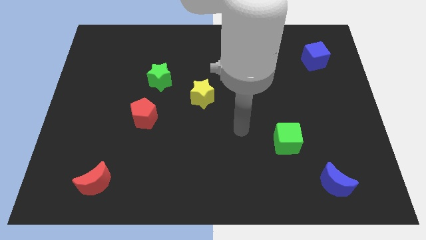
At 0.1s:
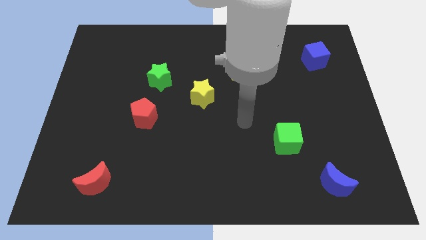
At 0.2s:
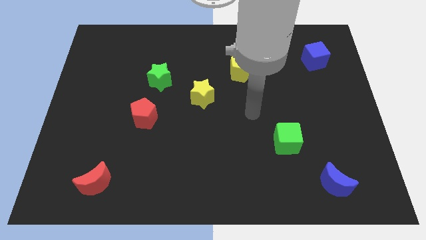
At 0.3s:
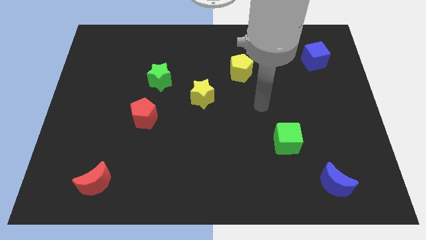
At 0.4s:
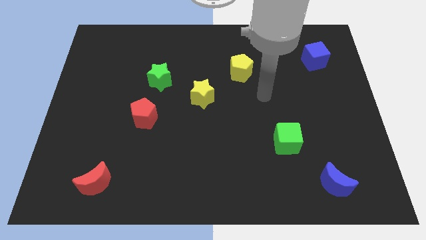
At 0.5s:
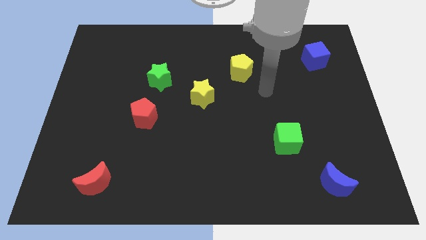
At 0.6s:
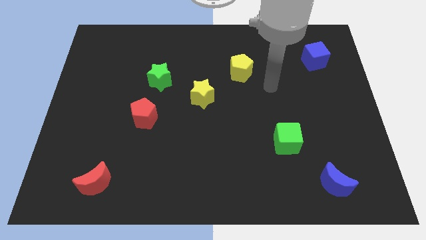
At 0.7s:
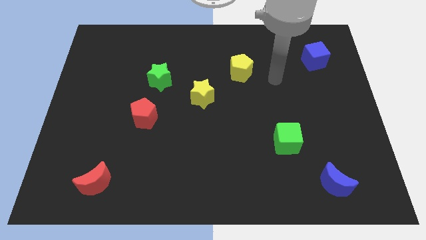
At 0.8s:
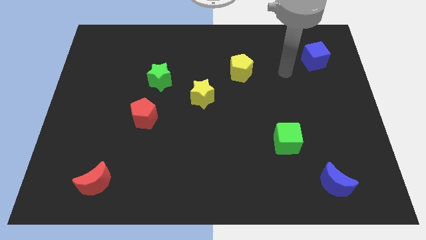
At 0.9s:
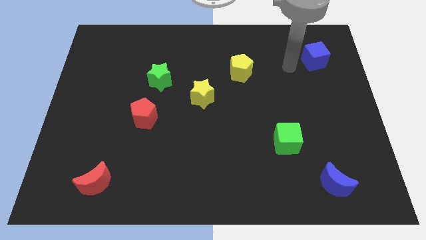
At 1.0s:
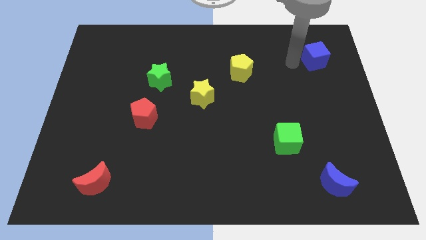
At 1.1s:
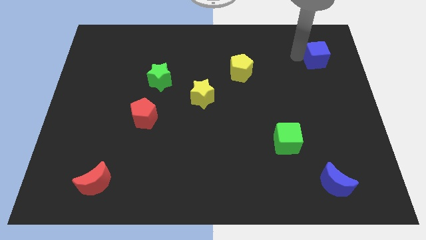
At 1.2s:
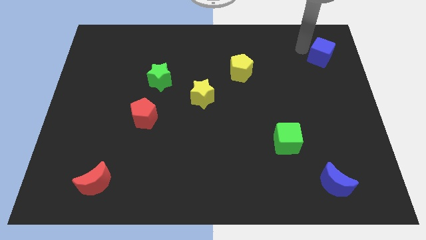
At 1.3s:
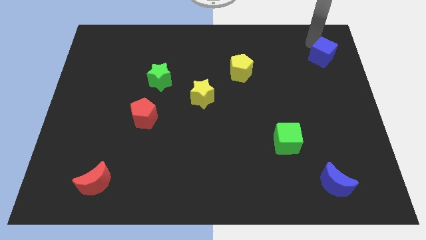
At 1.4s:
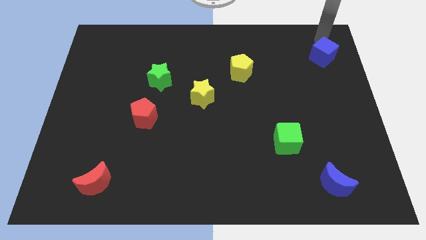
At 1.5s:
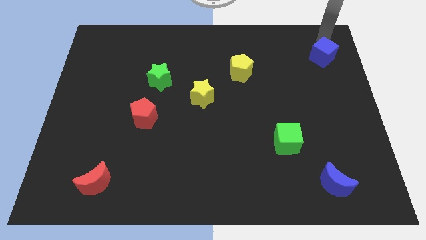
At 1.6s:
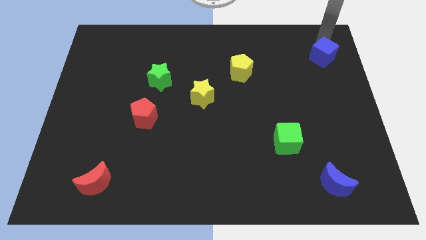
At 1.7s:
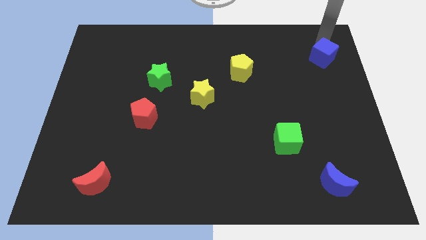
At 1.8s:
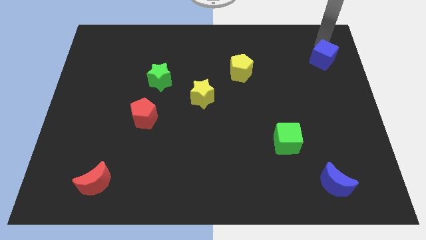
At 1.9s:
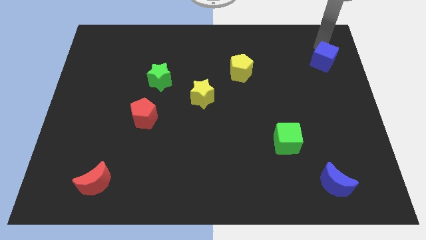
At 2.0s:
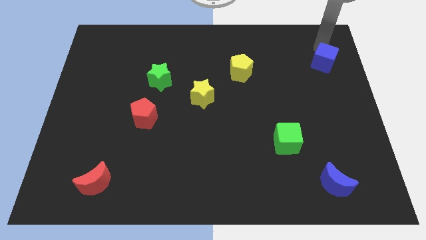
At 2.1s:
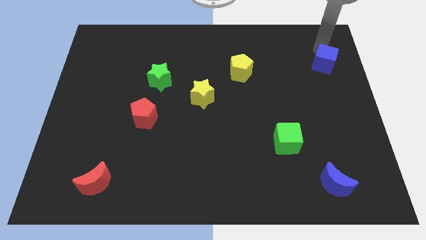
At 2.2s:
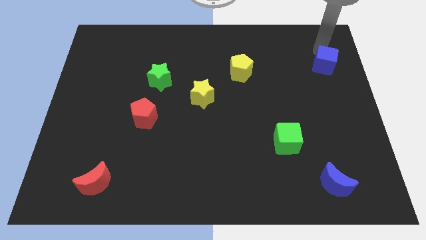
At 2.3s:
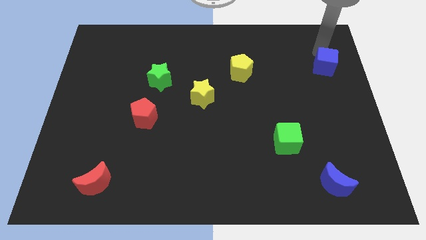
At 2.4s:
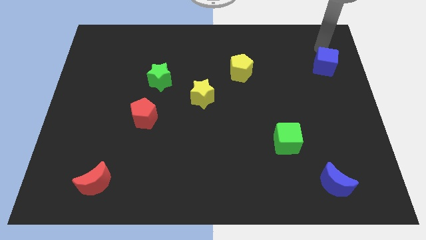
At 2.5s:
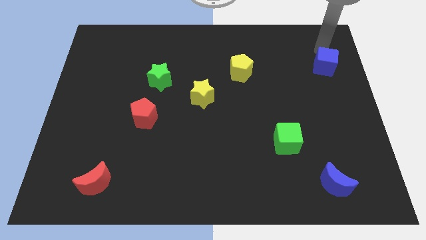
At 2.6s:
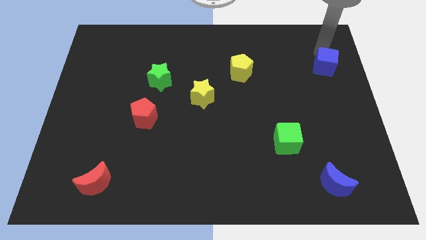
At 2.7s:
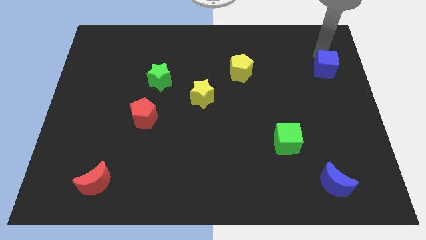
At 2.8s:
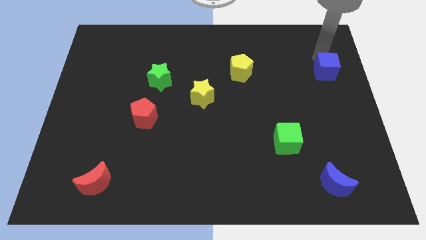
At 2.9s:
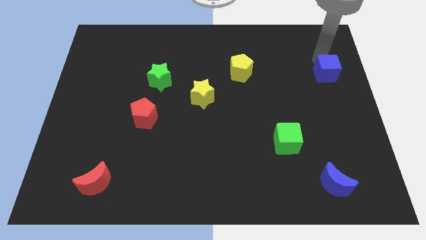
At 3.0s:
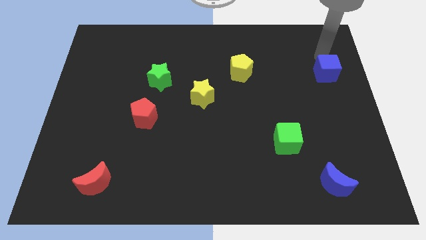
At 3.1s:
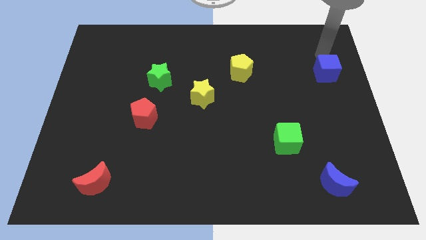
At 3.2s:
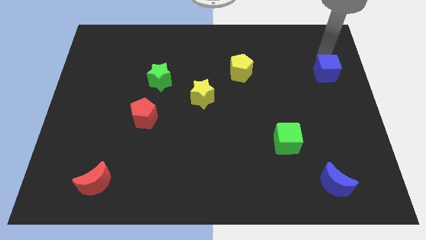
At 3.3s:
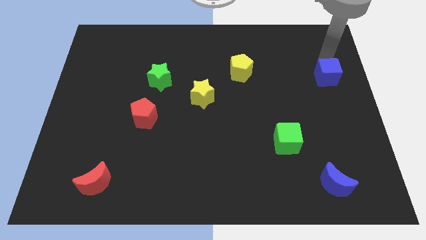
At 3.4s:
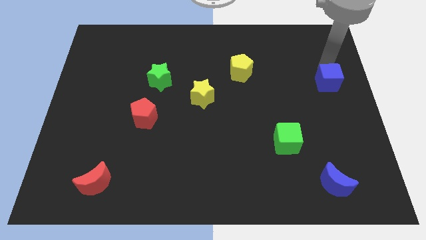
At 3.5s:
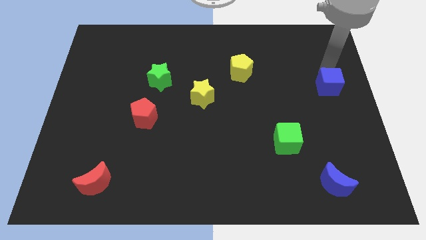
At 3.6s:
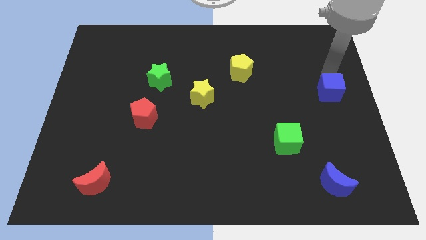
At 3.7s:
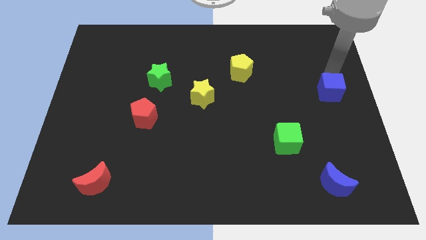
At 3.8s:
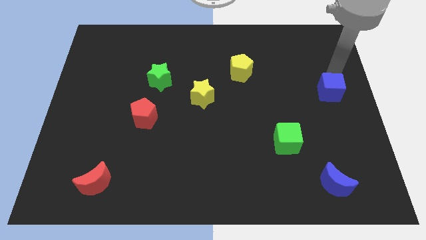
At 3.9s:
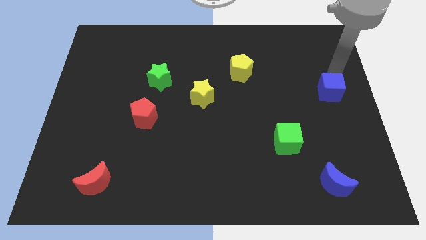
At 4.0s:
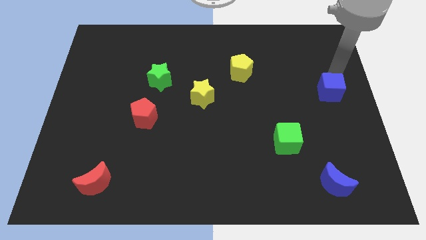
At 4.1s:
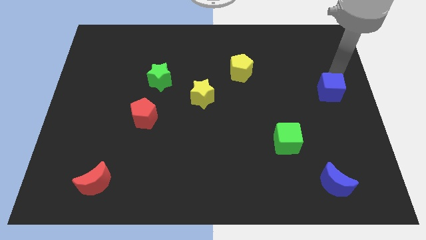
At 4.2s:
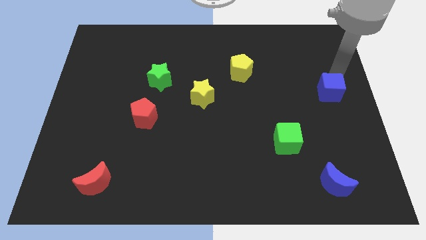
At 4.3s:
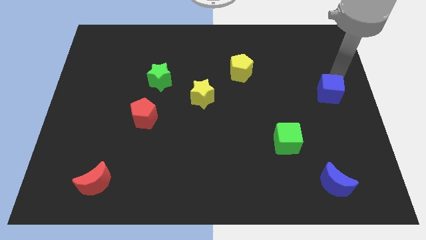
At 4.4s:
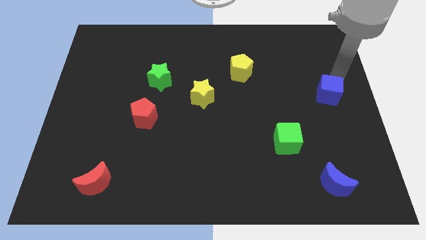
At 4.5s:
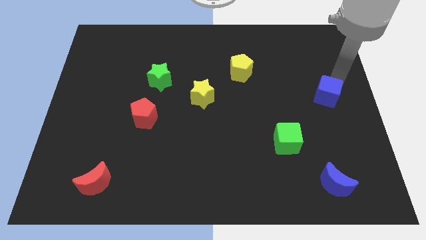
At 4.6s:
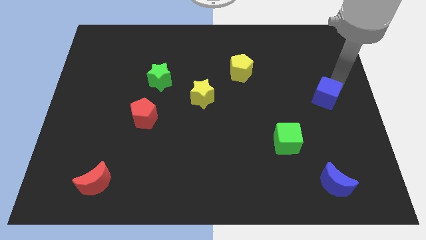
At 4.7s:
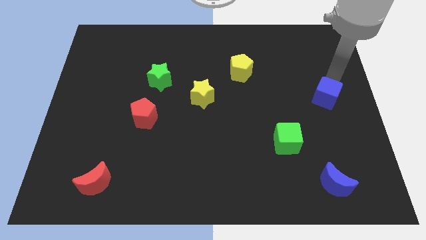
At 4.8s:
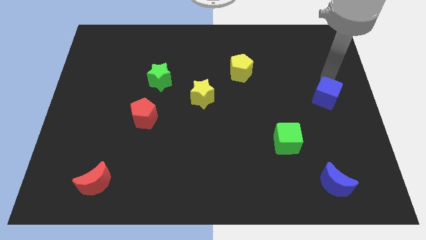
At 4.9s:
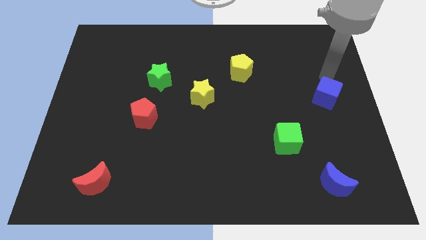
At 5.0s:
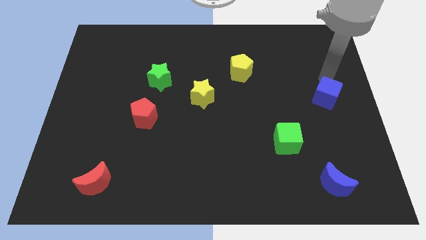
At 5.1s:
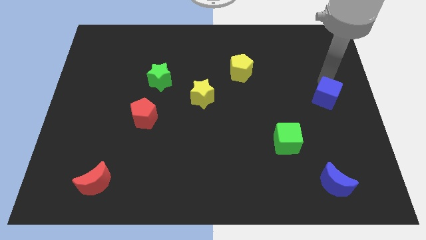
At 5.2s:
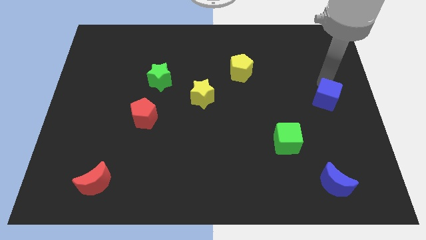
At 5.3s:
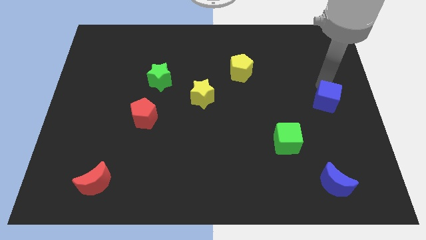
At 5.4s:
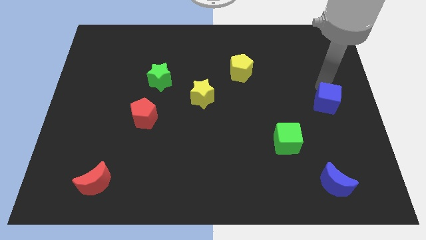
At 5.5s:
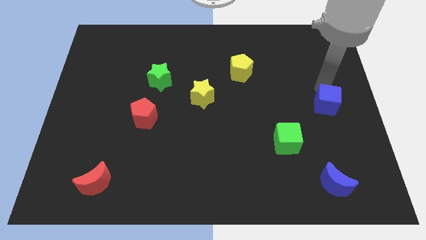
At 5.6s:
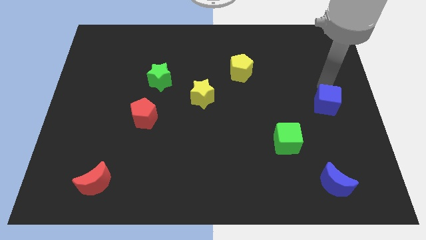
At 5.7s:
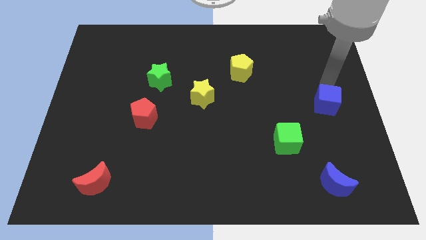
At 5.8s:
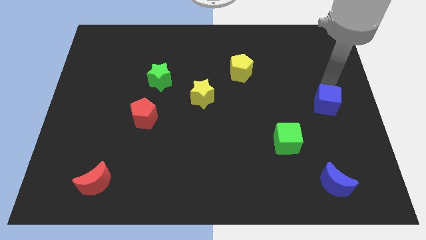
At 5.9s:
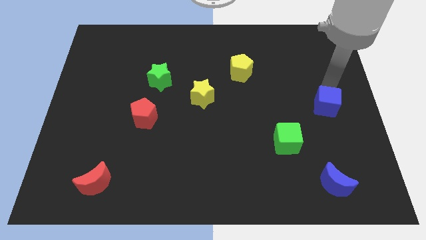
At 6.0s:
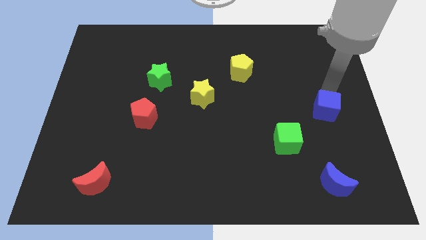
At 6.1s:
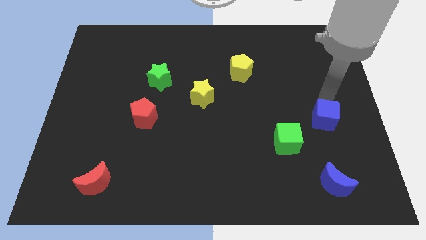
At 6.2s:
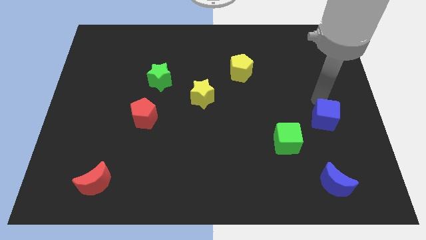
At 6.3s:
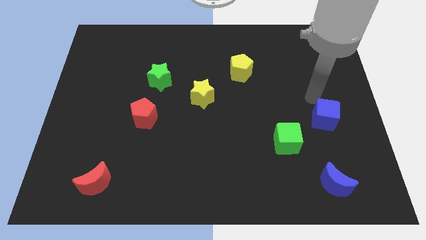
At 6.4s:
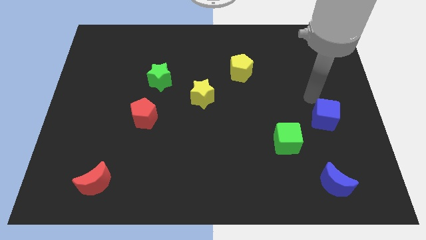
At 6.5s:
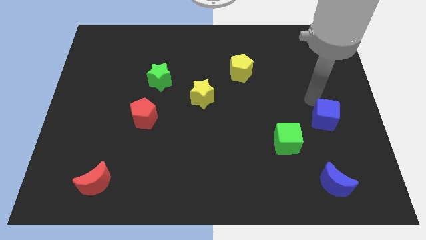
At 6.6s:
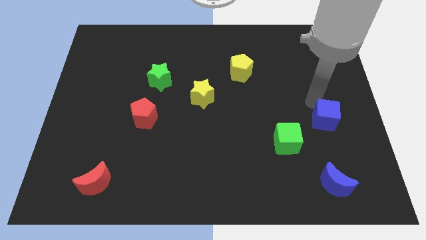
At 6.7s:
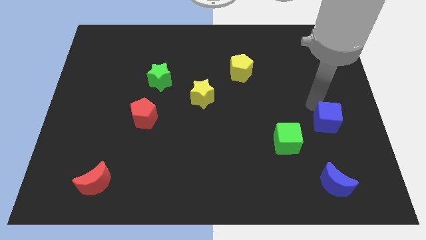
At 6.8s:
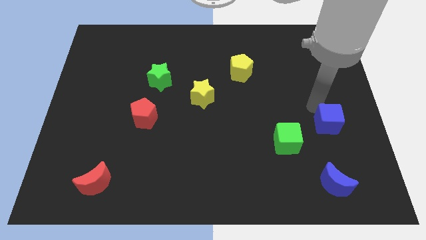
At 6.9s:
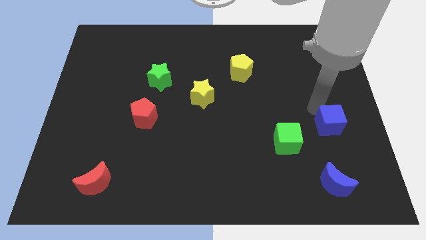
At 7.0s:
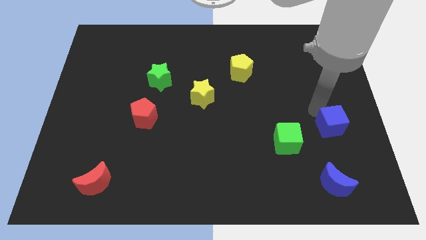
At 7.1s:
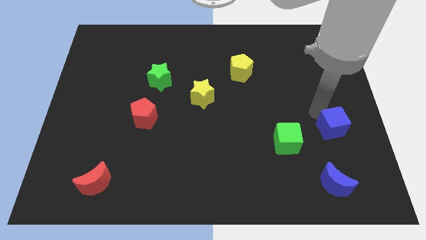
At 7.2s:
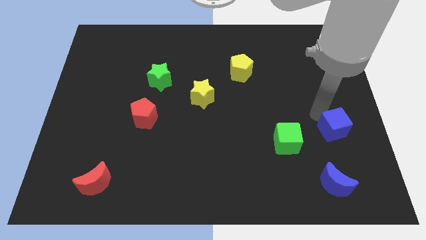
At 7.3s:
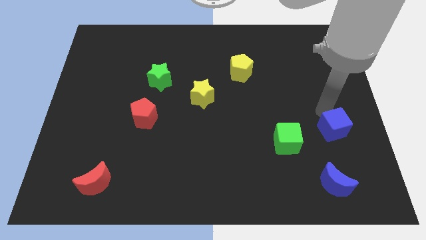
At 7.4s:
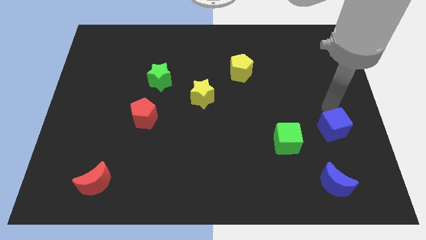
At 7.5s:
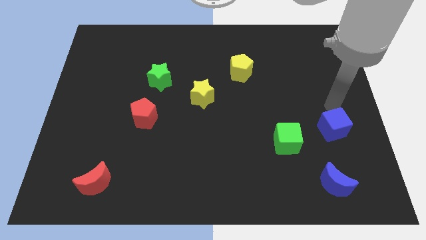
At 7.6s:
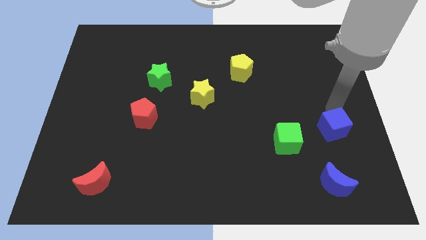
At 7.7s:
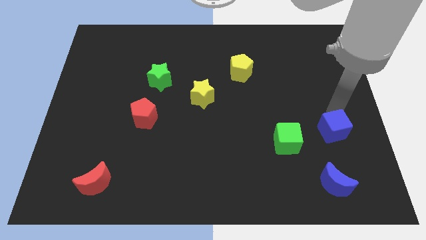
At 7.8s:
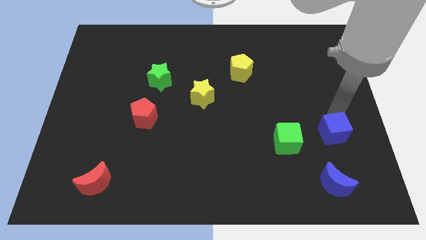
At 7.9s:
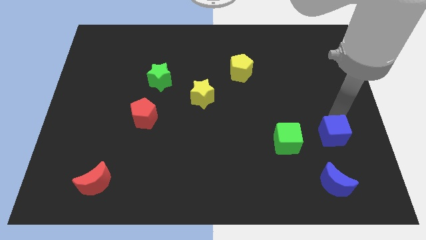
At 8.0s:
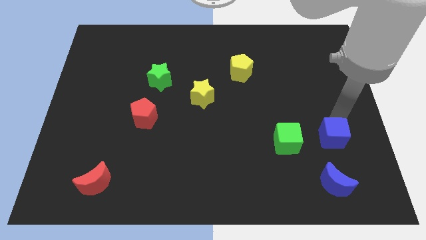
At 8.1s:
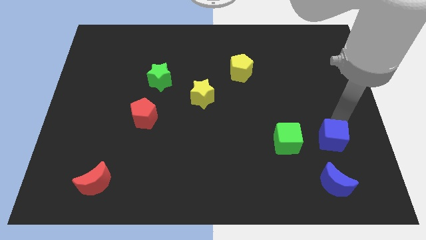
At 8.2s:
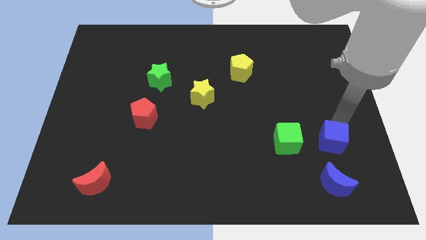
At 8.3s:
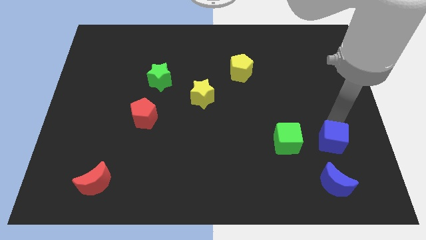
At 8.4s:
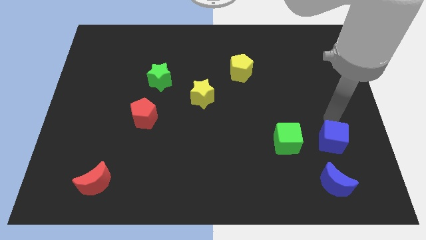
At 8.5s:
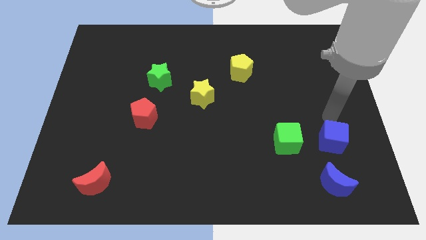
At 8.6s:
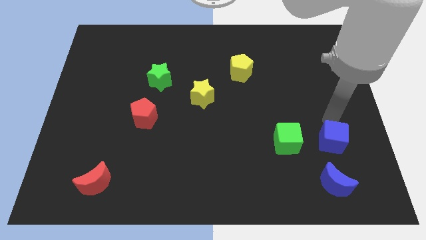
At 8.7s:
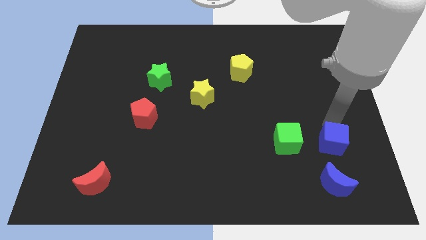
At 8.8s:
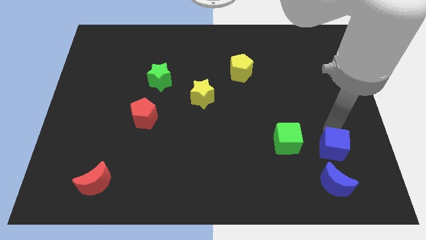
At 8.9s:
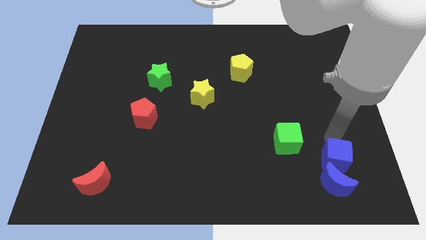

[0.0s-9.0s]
slide the blue cube towards the blue moon
